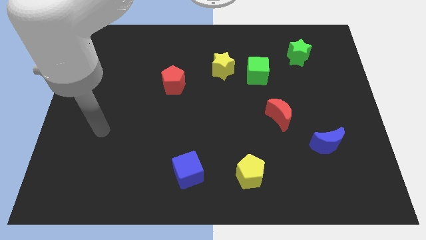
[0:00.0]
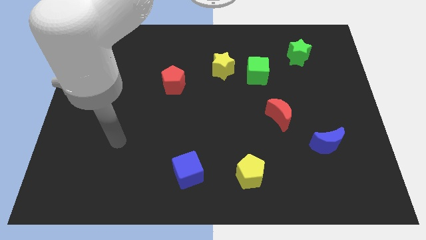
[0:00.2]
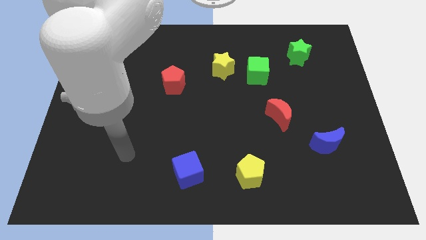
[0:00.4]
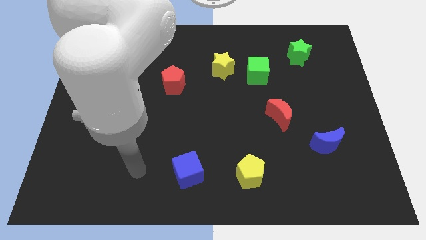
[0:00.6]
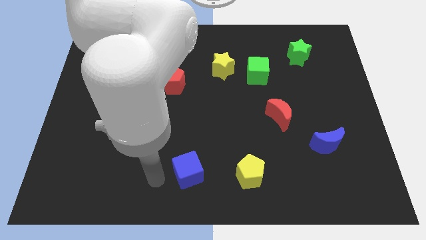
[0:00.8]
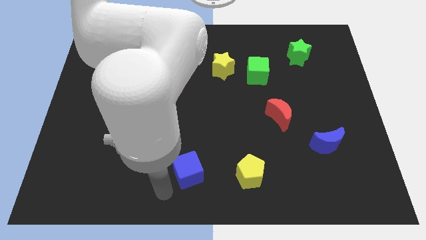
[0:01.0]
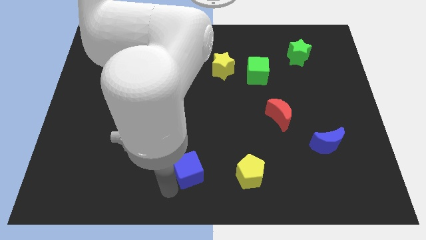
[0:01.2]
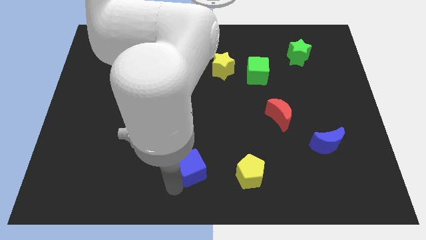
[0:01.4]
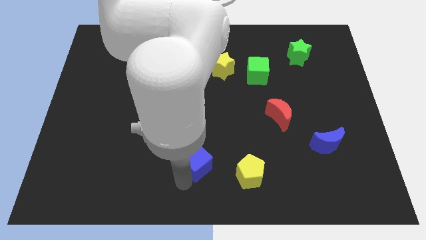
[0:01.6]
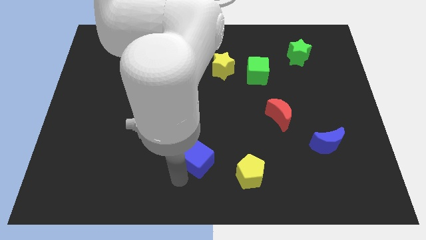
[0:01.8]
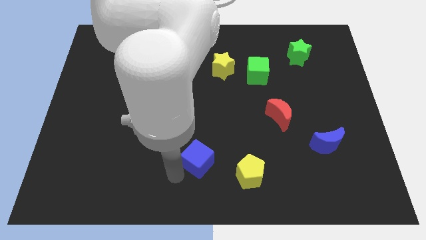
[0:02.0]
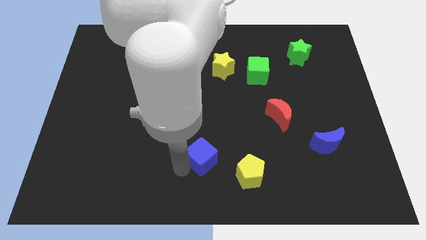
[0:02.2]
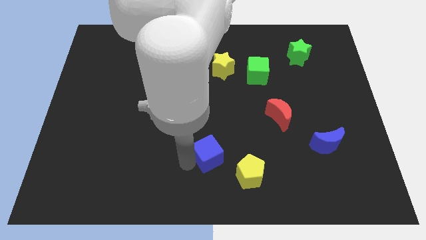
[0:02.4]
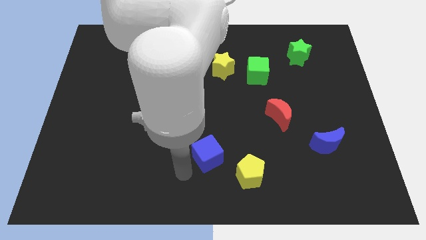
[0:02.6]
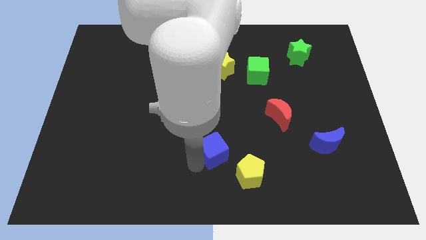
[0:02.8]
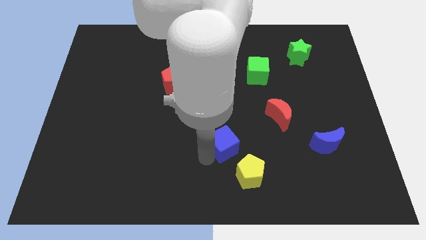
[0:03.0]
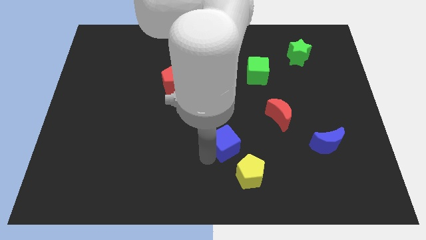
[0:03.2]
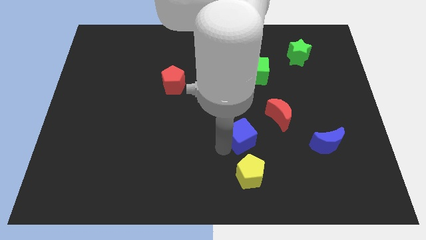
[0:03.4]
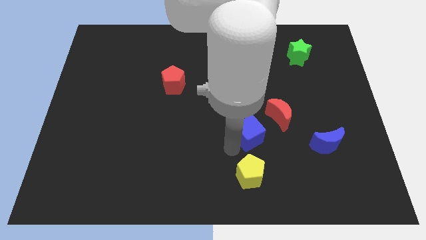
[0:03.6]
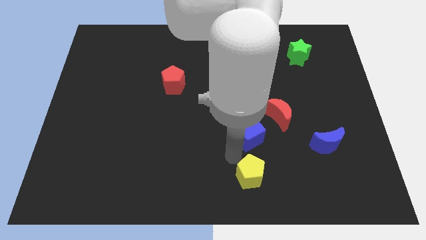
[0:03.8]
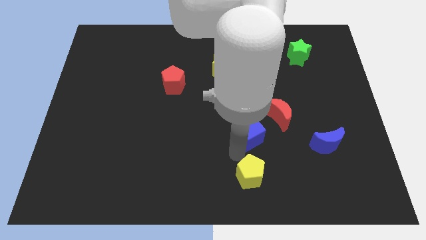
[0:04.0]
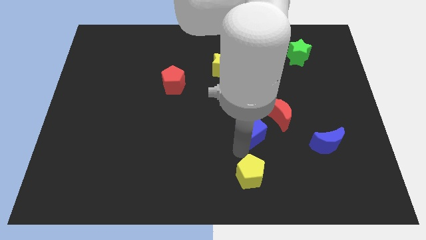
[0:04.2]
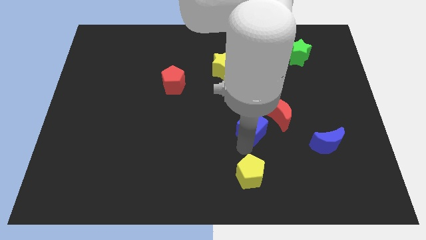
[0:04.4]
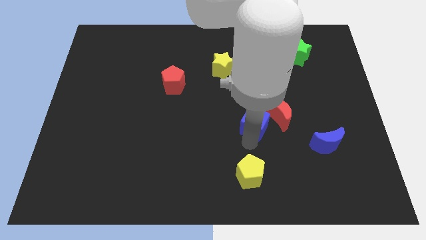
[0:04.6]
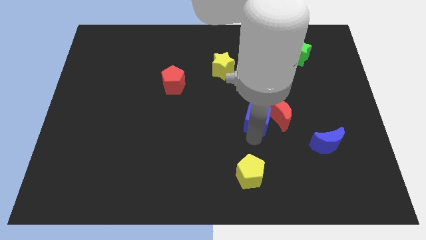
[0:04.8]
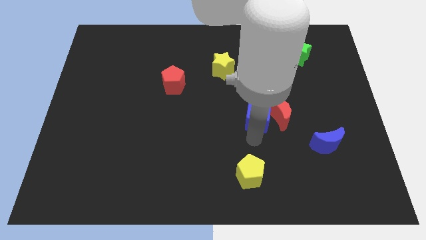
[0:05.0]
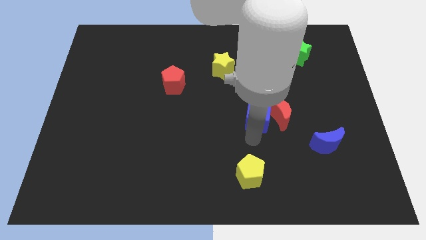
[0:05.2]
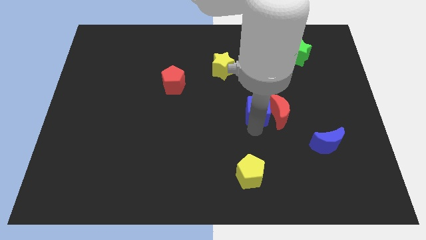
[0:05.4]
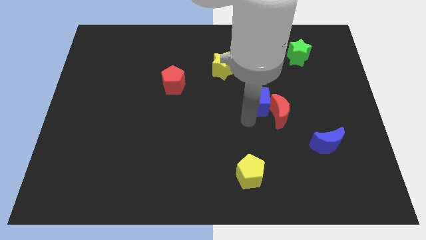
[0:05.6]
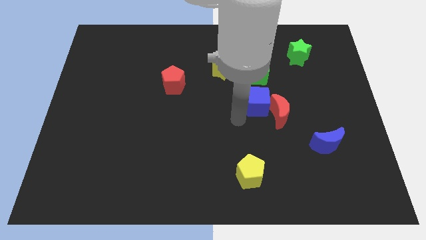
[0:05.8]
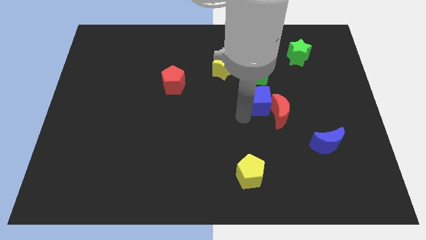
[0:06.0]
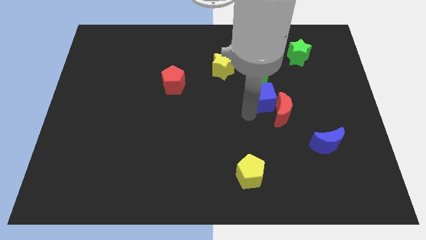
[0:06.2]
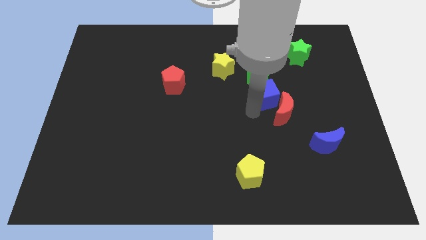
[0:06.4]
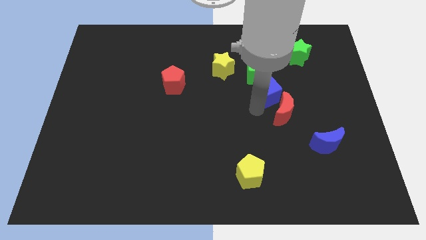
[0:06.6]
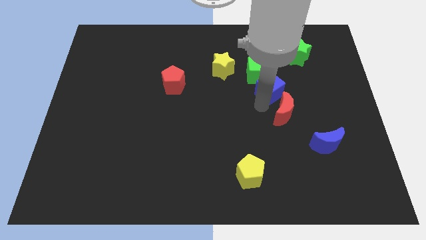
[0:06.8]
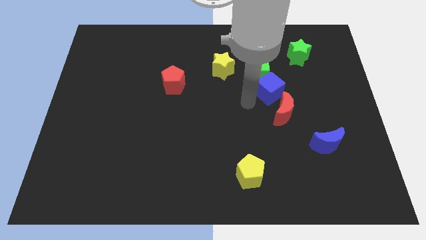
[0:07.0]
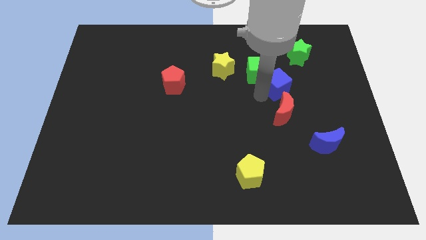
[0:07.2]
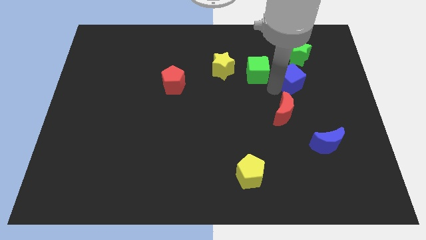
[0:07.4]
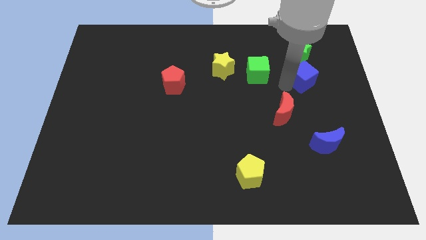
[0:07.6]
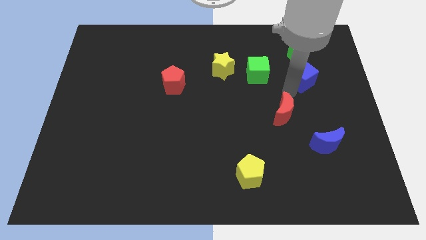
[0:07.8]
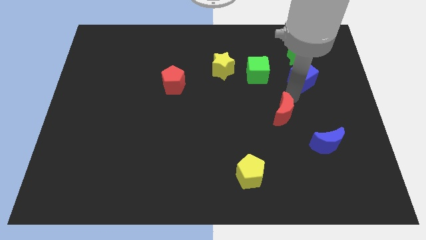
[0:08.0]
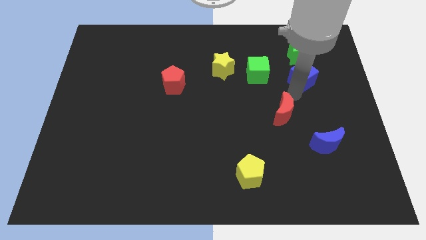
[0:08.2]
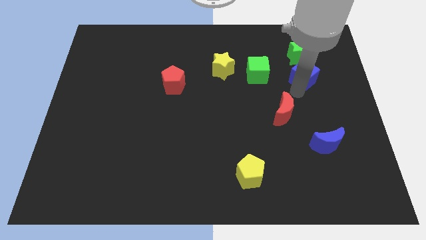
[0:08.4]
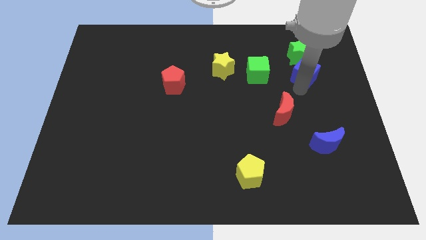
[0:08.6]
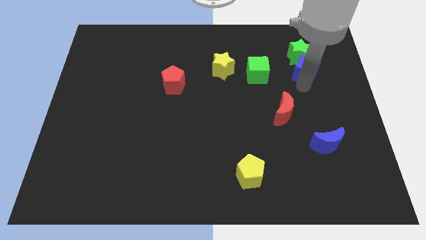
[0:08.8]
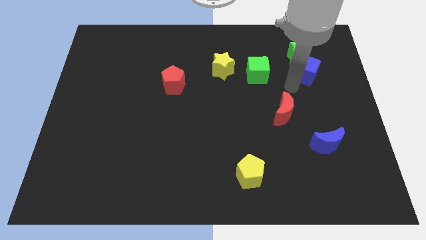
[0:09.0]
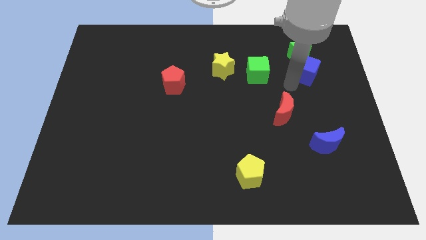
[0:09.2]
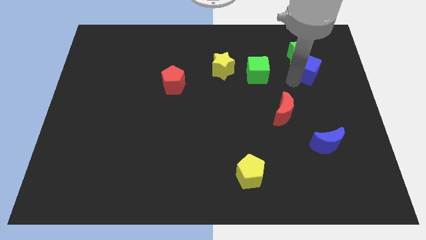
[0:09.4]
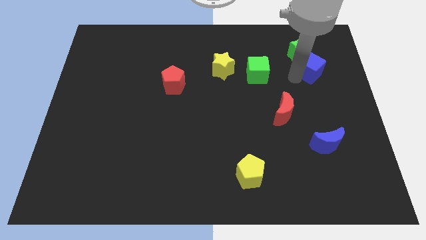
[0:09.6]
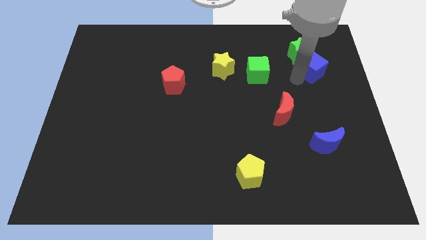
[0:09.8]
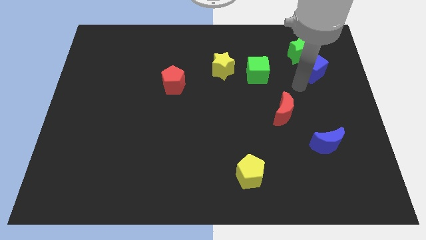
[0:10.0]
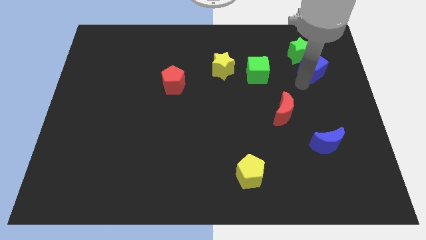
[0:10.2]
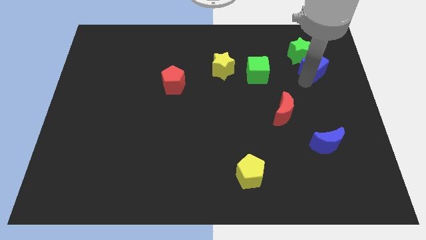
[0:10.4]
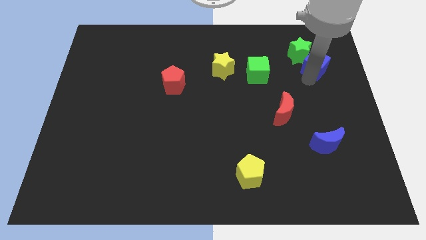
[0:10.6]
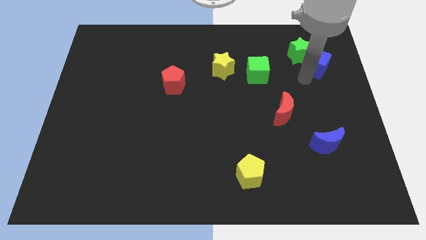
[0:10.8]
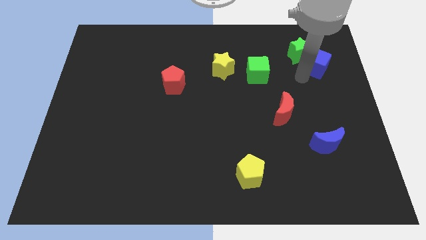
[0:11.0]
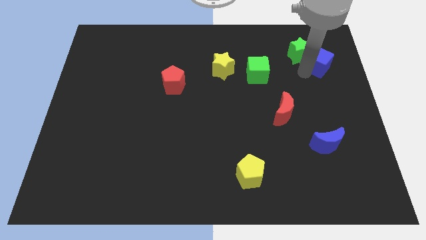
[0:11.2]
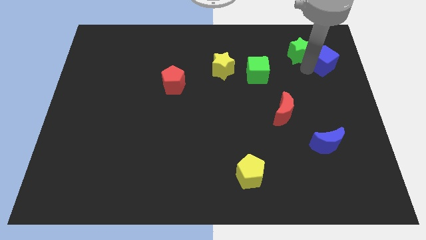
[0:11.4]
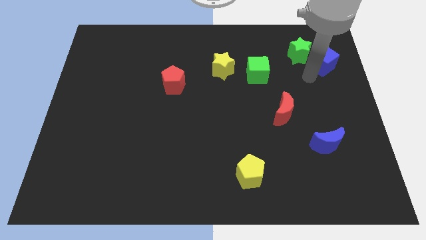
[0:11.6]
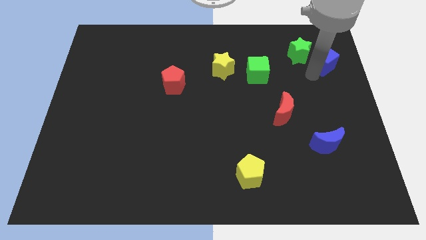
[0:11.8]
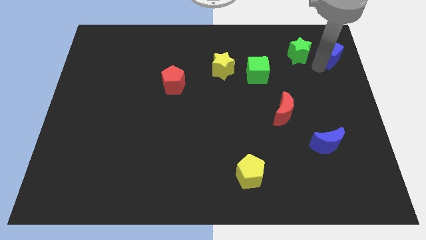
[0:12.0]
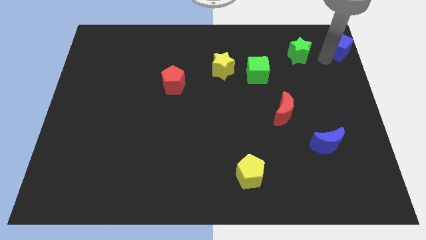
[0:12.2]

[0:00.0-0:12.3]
push the blue cube to the top right
